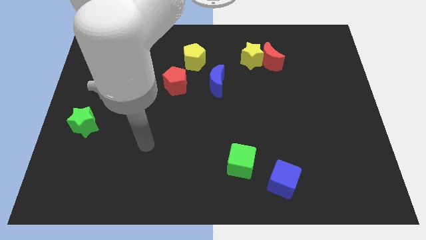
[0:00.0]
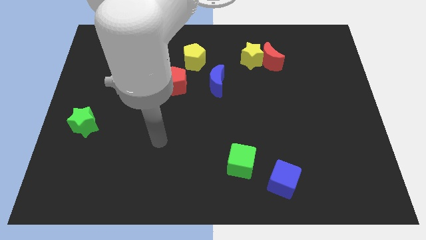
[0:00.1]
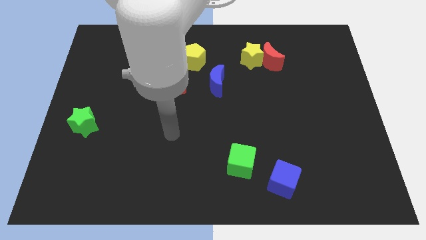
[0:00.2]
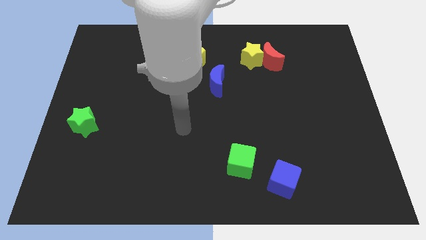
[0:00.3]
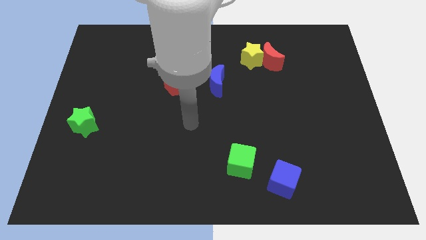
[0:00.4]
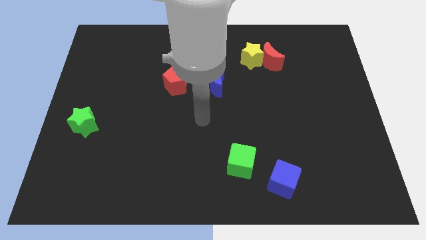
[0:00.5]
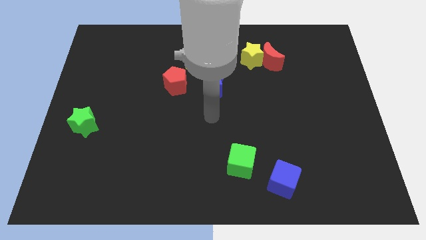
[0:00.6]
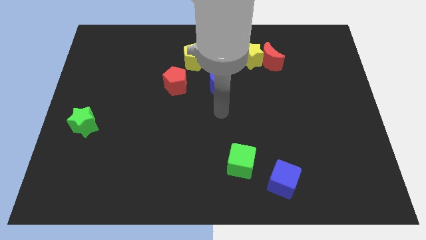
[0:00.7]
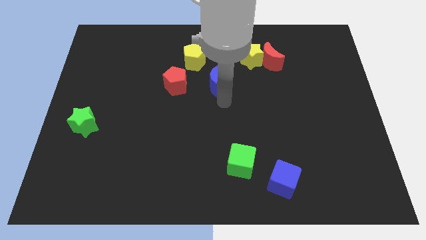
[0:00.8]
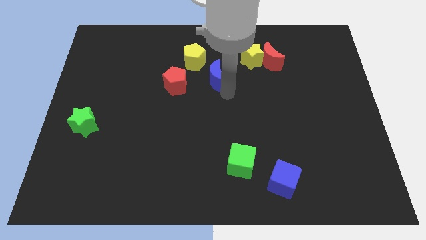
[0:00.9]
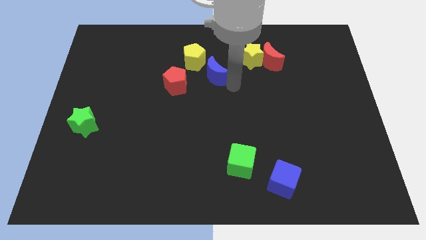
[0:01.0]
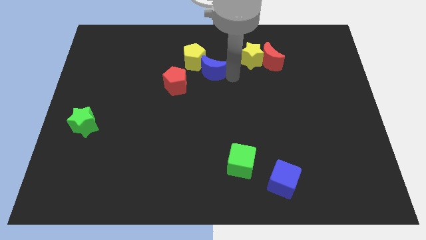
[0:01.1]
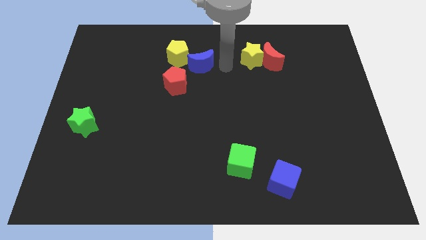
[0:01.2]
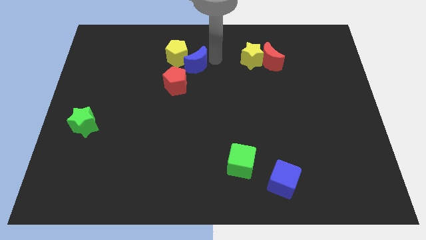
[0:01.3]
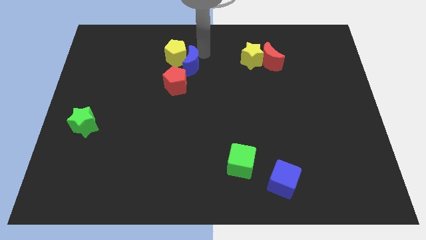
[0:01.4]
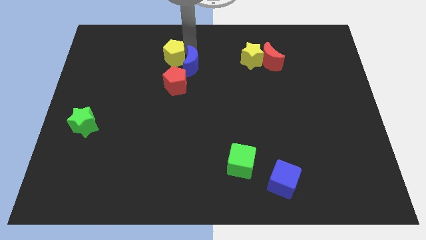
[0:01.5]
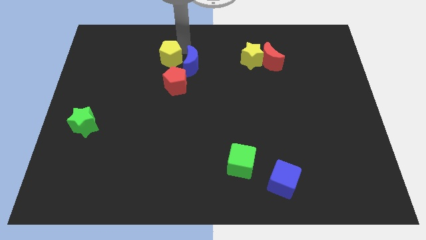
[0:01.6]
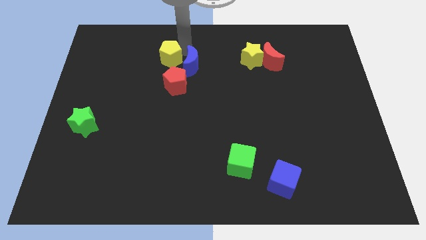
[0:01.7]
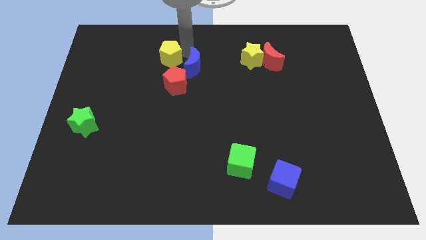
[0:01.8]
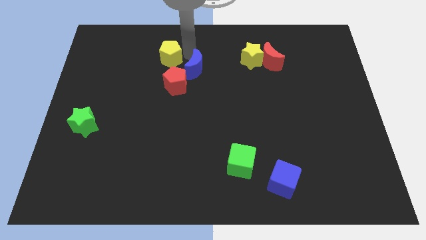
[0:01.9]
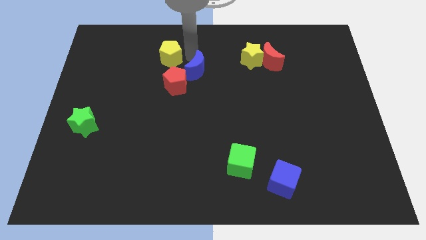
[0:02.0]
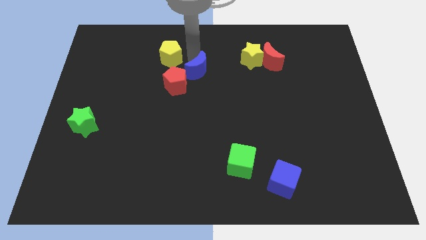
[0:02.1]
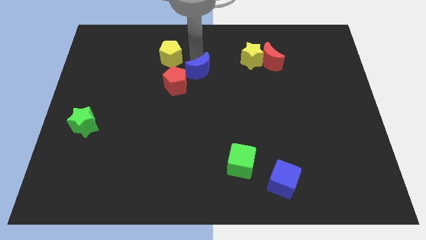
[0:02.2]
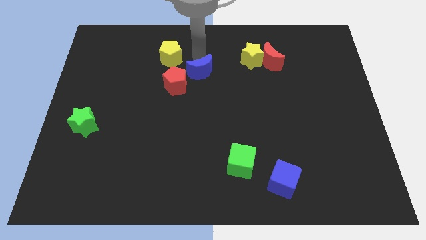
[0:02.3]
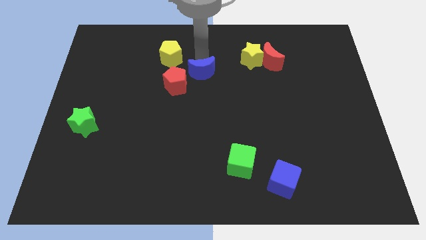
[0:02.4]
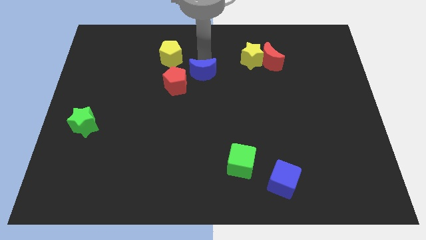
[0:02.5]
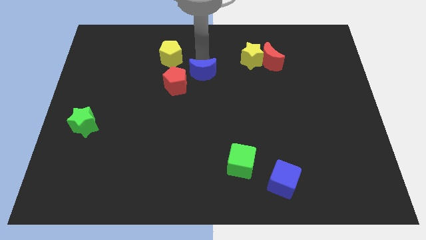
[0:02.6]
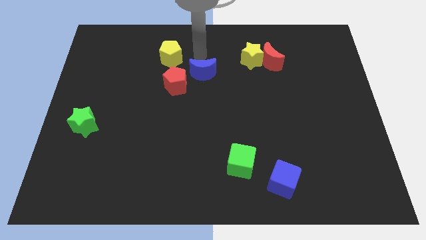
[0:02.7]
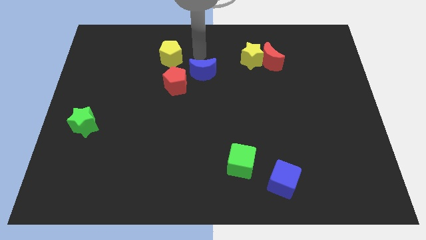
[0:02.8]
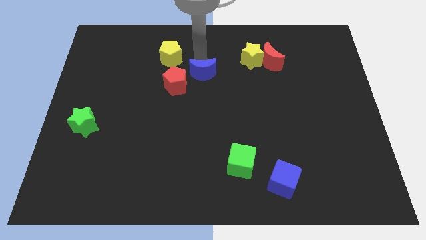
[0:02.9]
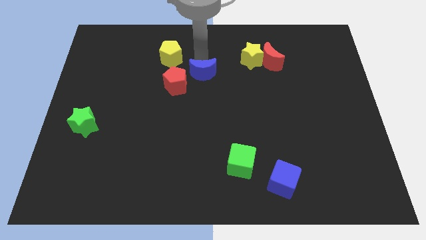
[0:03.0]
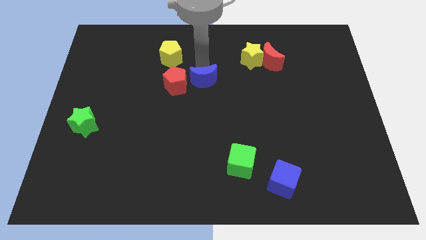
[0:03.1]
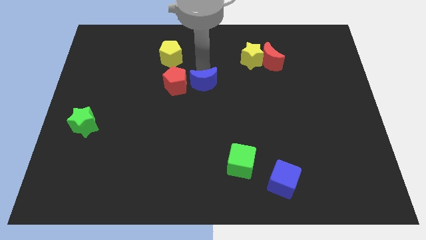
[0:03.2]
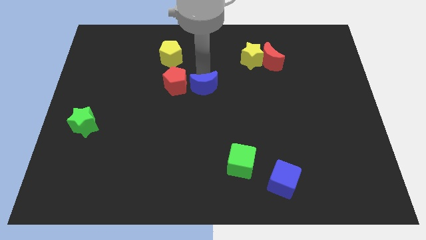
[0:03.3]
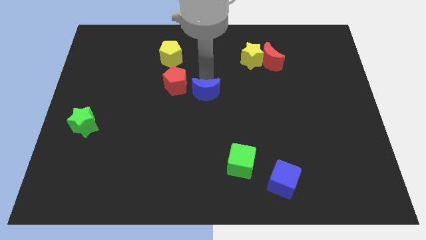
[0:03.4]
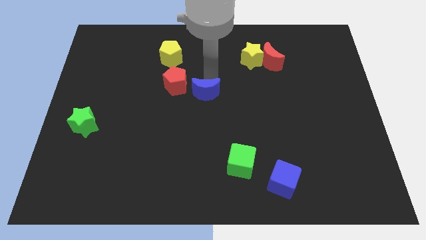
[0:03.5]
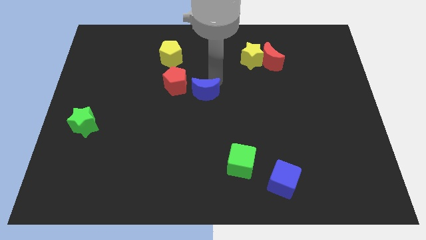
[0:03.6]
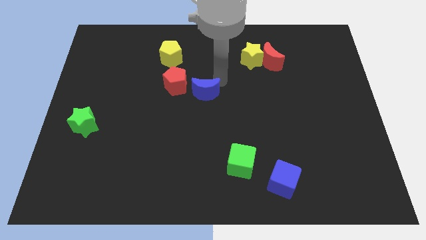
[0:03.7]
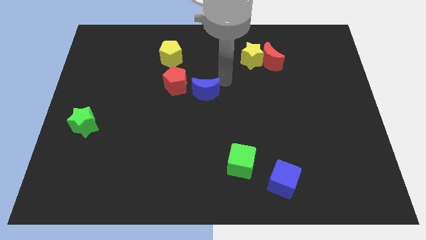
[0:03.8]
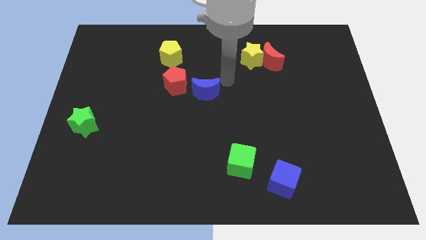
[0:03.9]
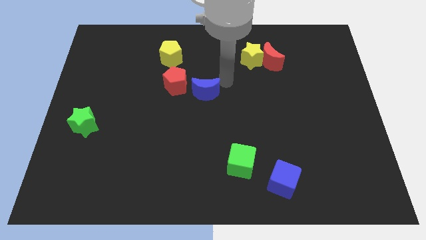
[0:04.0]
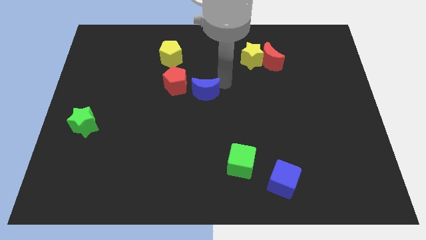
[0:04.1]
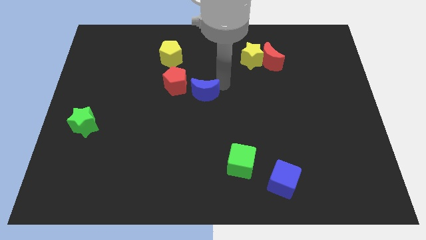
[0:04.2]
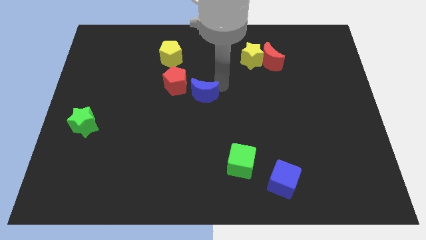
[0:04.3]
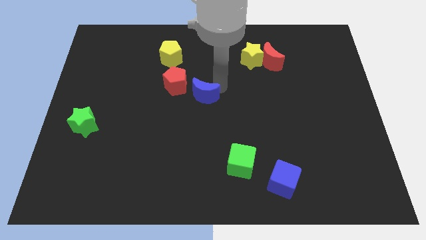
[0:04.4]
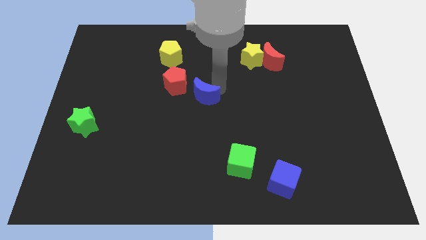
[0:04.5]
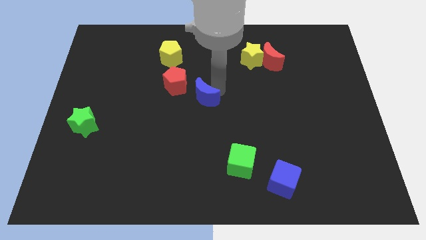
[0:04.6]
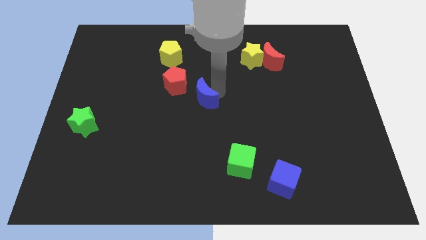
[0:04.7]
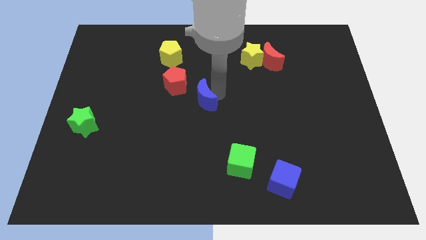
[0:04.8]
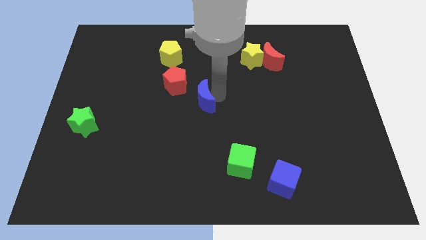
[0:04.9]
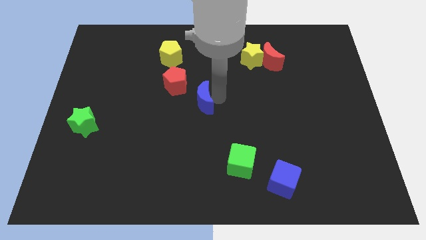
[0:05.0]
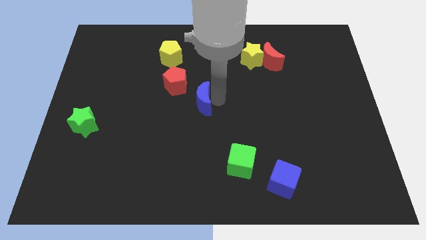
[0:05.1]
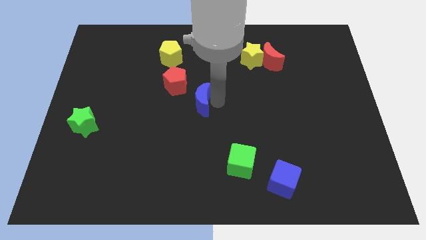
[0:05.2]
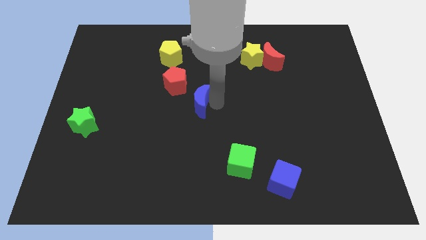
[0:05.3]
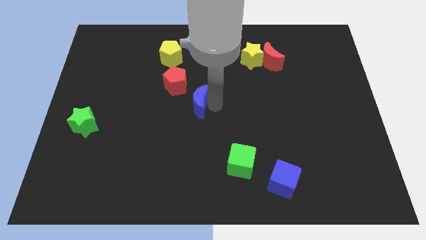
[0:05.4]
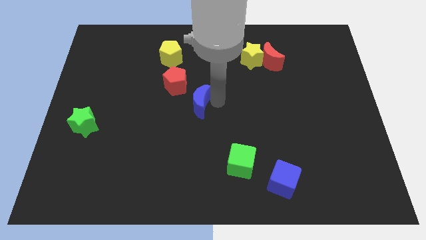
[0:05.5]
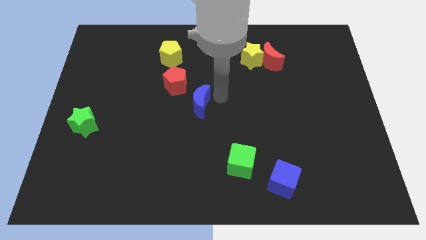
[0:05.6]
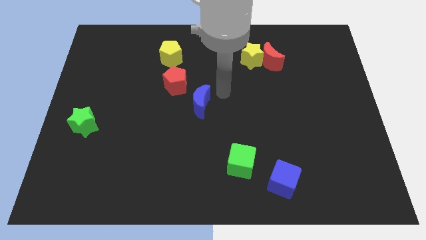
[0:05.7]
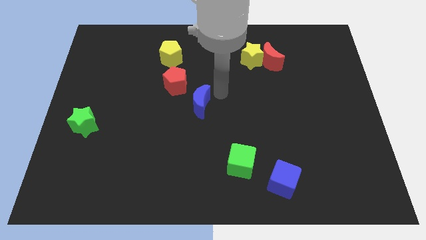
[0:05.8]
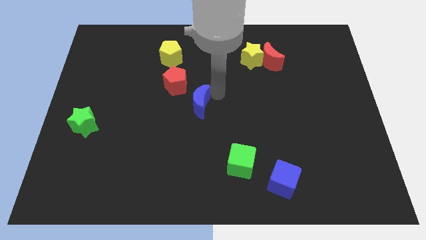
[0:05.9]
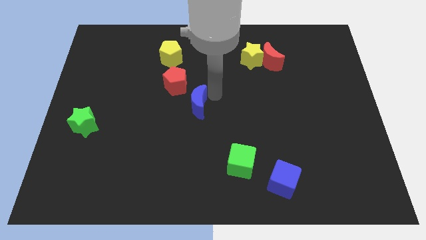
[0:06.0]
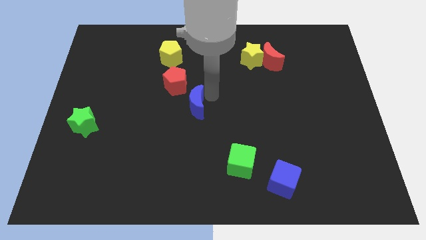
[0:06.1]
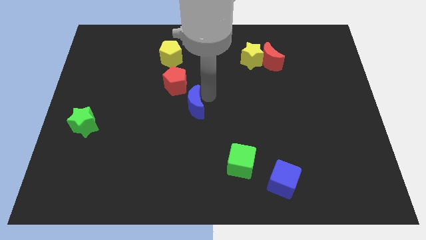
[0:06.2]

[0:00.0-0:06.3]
move the blue moon to the bottom of the red pentagon
